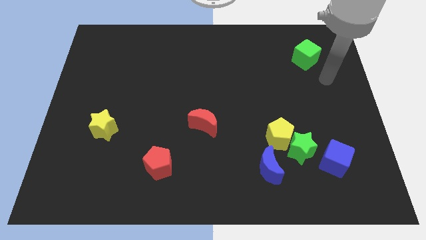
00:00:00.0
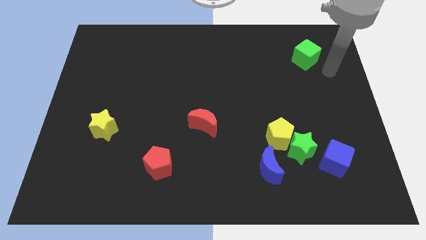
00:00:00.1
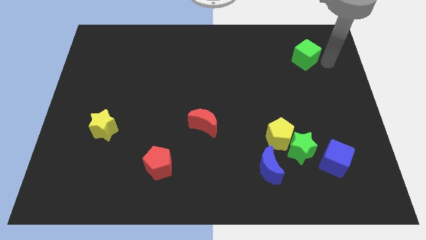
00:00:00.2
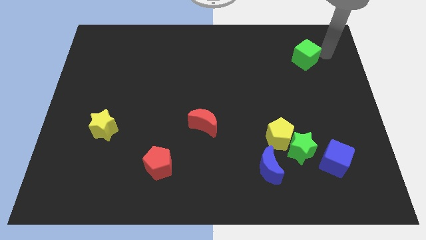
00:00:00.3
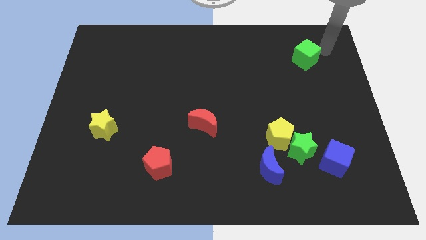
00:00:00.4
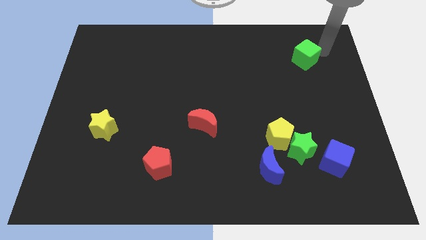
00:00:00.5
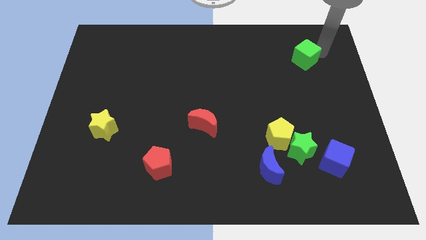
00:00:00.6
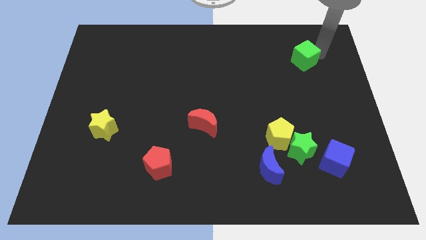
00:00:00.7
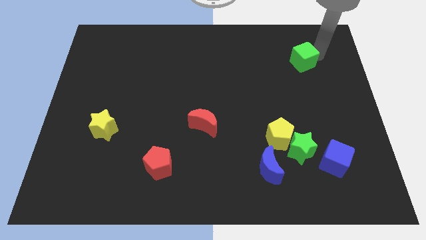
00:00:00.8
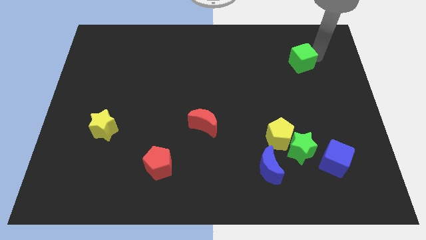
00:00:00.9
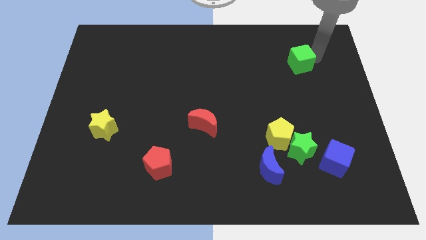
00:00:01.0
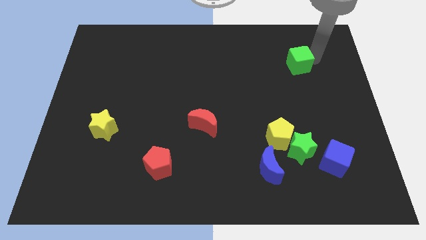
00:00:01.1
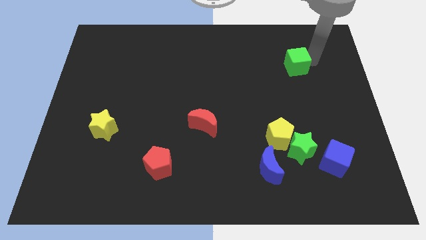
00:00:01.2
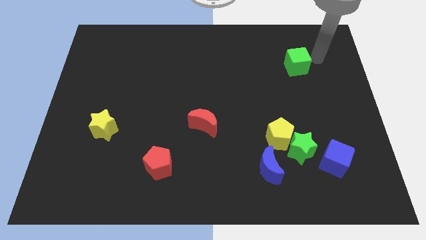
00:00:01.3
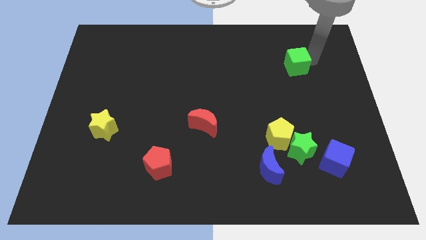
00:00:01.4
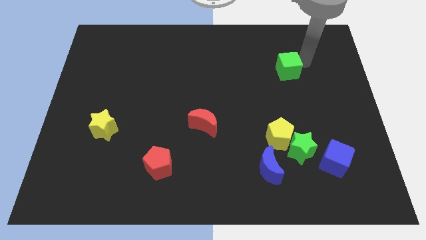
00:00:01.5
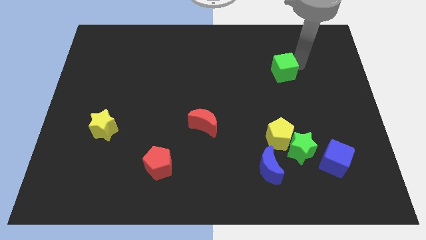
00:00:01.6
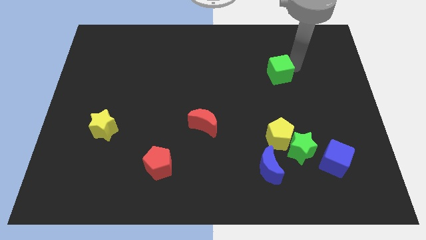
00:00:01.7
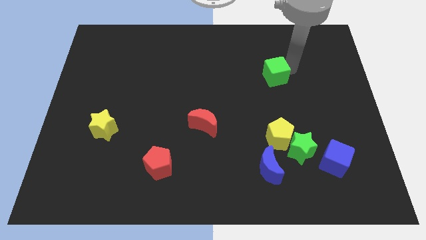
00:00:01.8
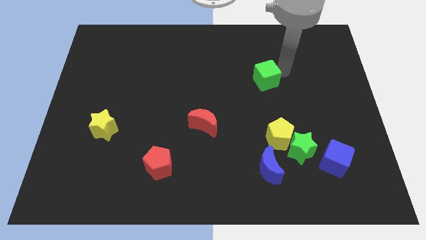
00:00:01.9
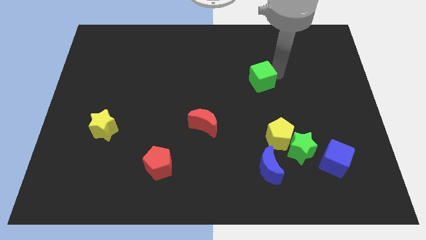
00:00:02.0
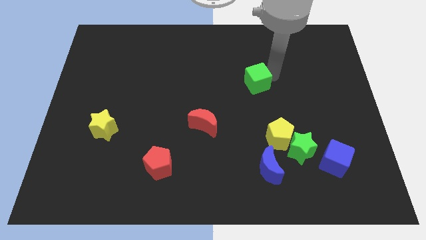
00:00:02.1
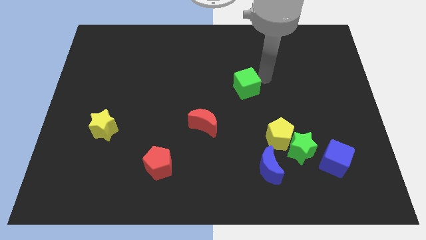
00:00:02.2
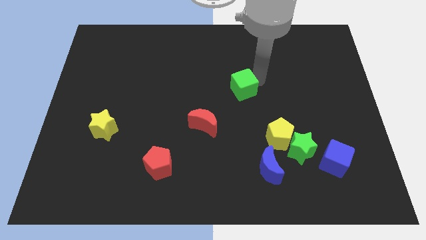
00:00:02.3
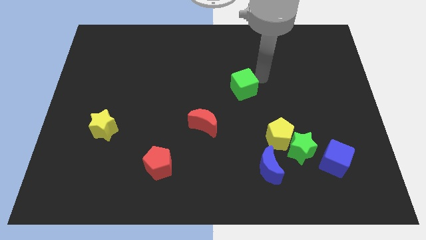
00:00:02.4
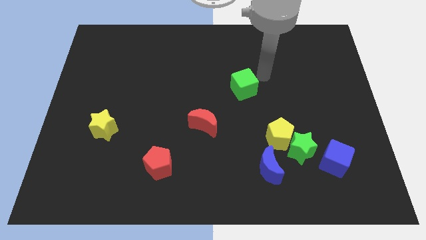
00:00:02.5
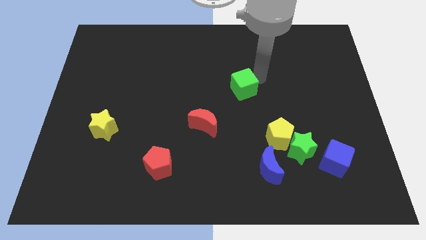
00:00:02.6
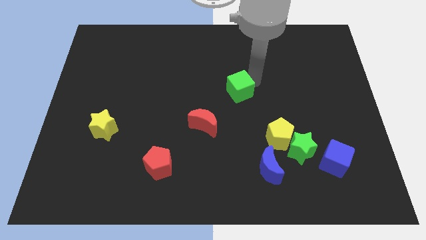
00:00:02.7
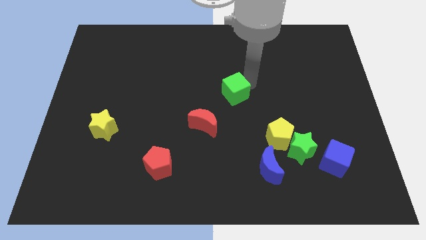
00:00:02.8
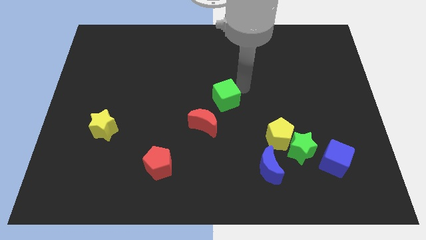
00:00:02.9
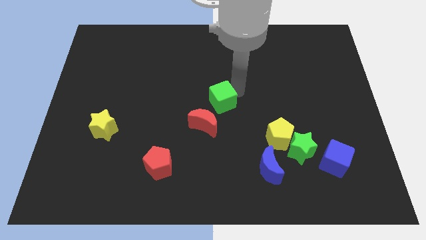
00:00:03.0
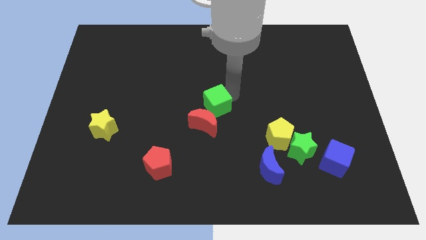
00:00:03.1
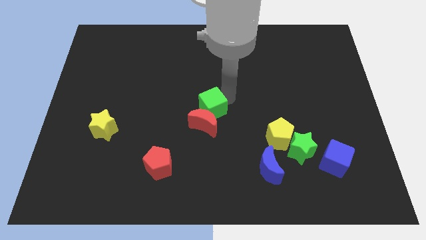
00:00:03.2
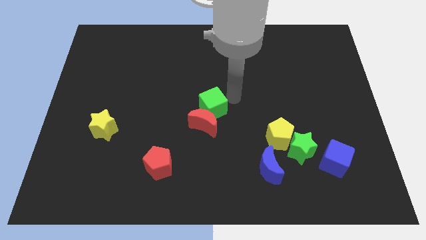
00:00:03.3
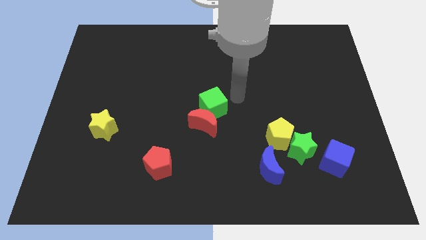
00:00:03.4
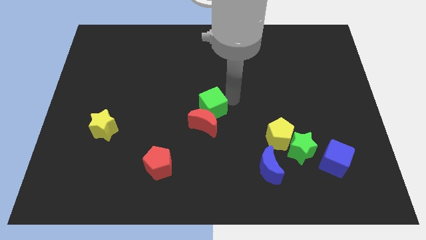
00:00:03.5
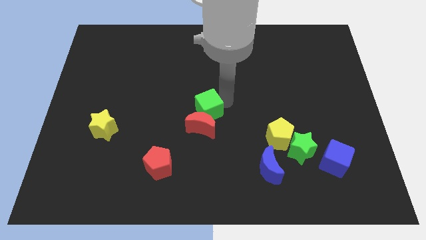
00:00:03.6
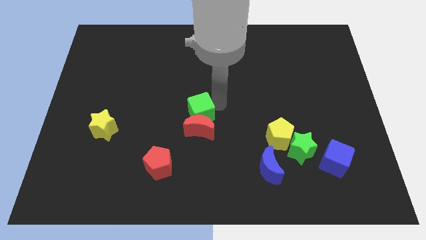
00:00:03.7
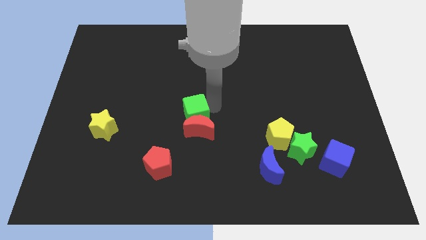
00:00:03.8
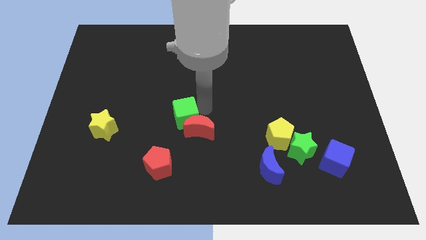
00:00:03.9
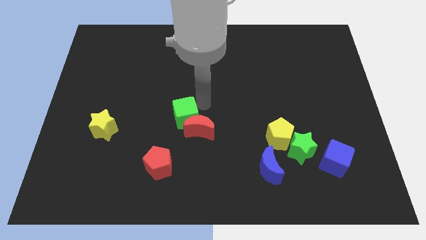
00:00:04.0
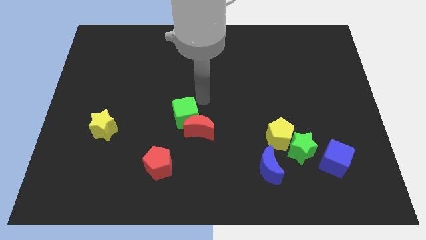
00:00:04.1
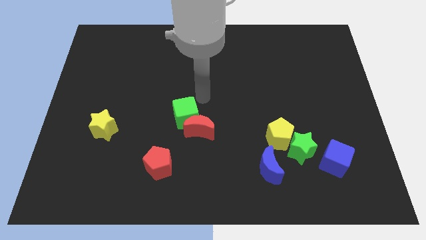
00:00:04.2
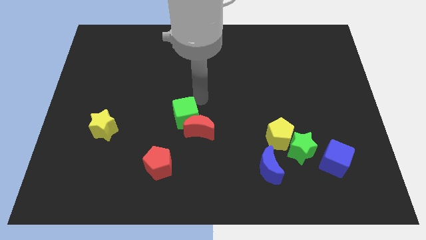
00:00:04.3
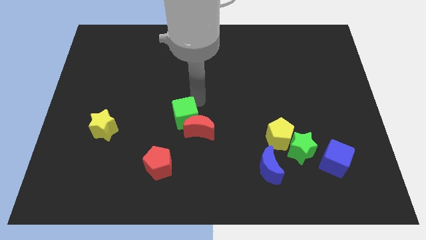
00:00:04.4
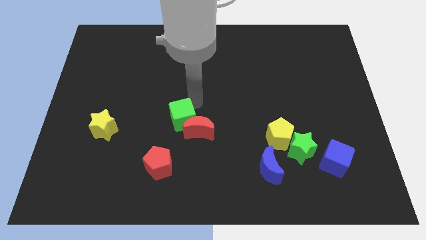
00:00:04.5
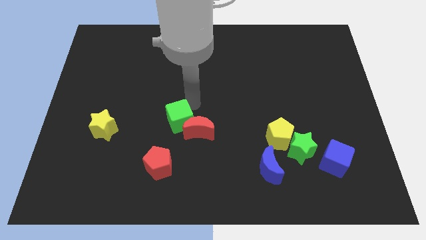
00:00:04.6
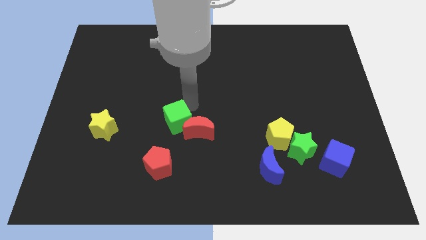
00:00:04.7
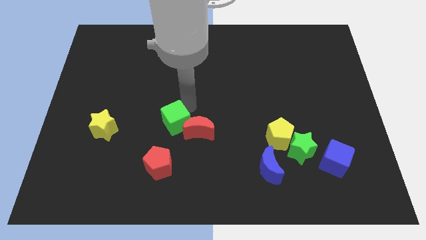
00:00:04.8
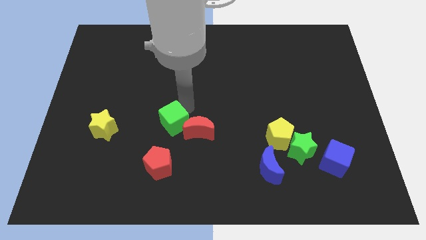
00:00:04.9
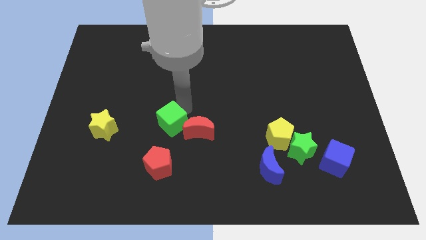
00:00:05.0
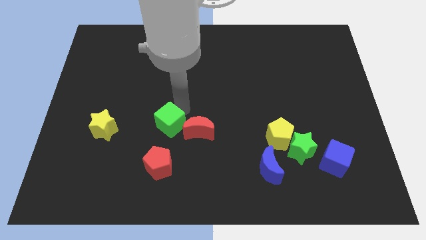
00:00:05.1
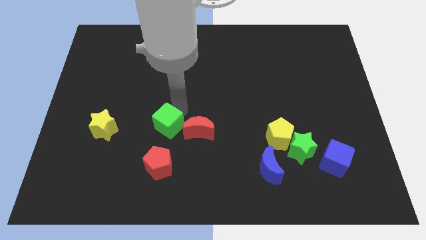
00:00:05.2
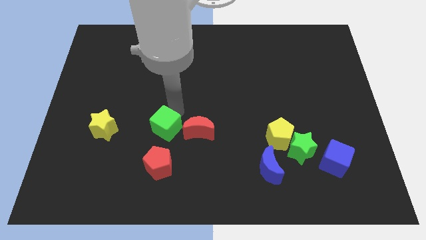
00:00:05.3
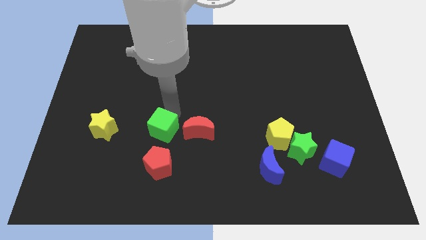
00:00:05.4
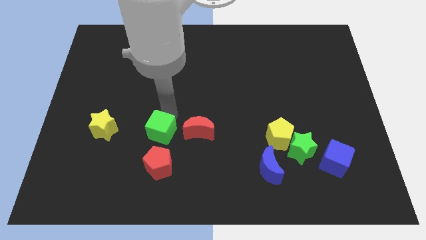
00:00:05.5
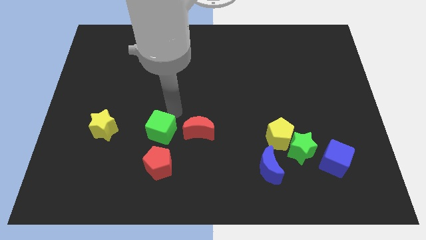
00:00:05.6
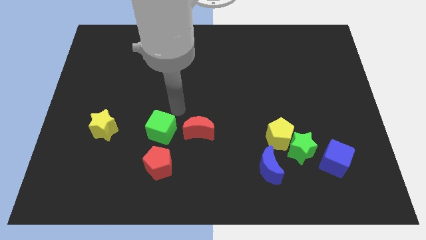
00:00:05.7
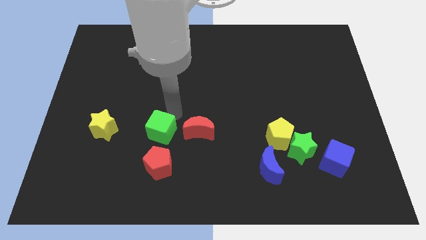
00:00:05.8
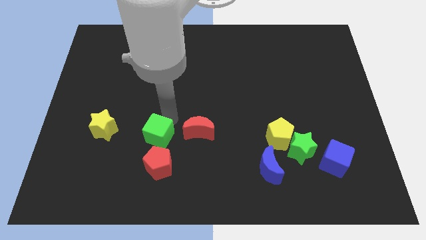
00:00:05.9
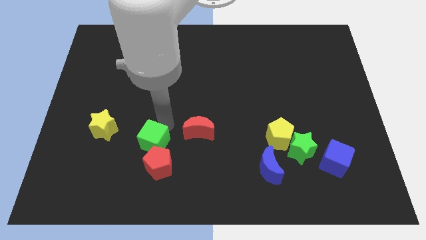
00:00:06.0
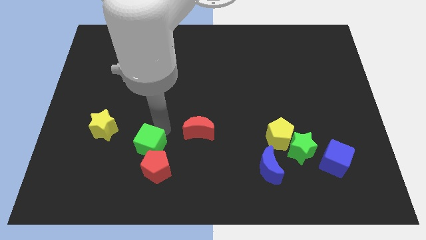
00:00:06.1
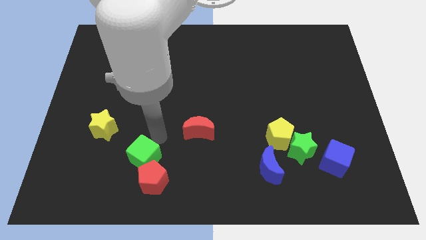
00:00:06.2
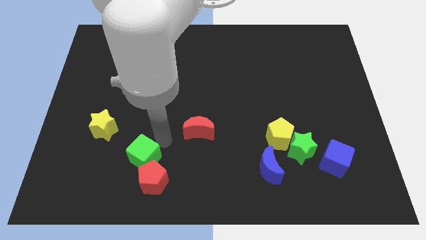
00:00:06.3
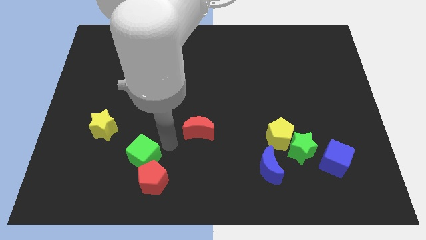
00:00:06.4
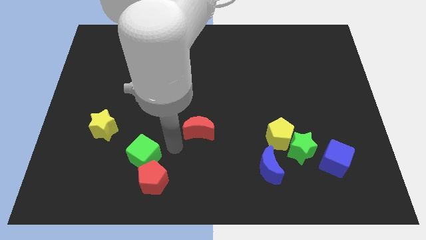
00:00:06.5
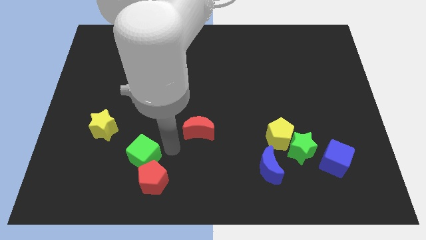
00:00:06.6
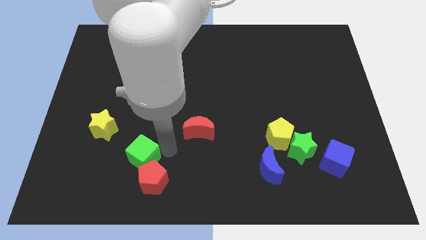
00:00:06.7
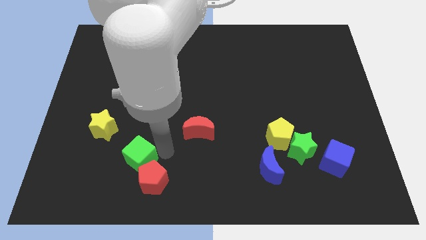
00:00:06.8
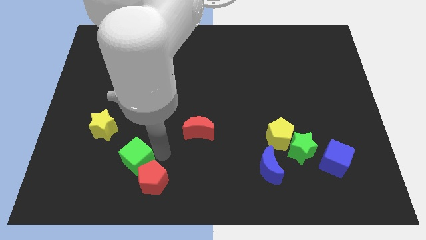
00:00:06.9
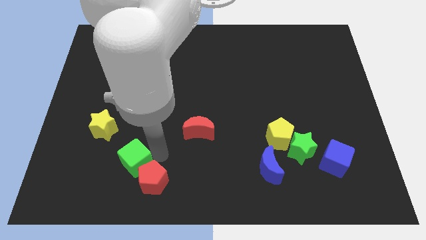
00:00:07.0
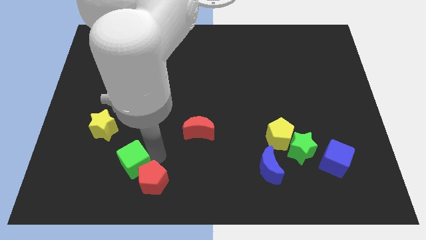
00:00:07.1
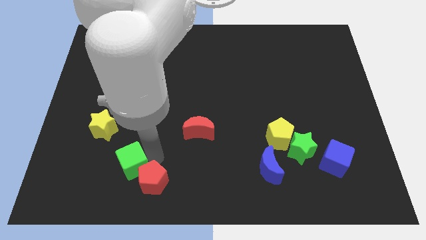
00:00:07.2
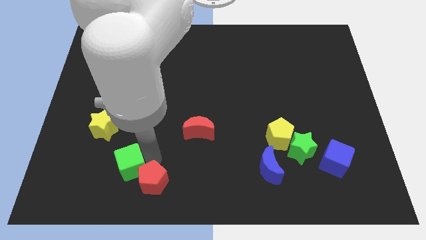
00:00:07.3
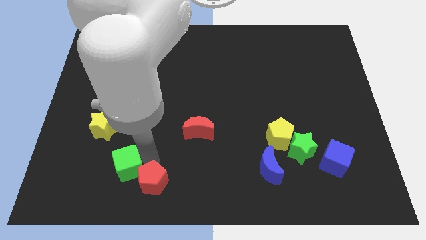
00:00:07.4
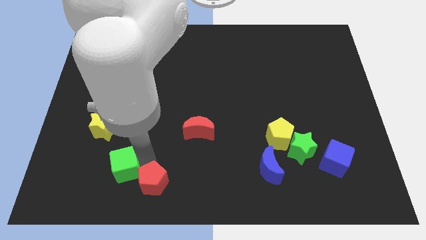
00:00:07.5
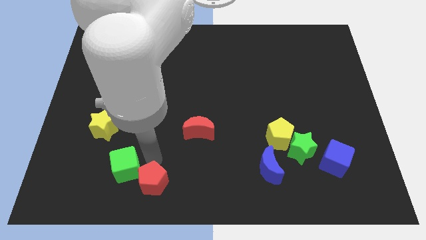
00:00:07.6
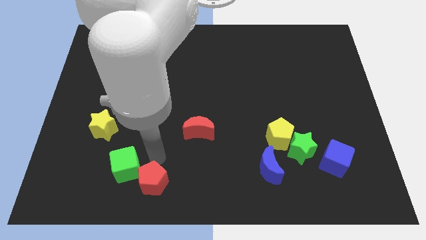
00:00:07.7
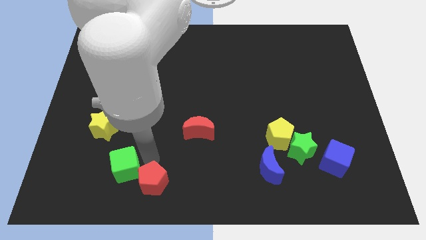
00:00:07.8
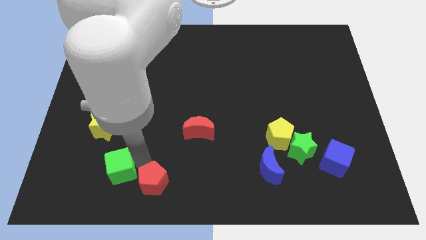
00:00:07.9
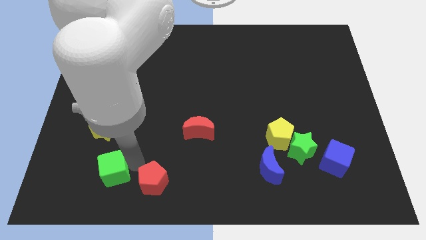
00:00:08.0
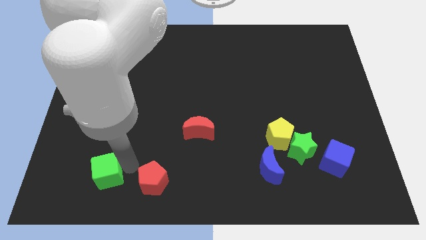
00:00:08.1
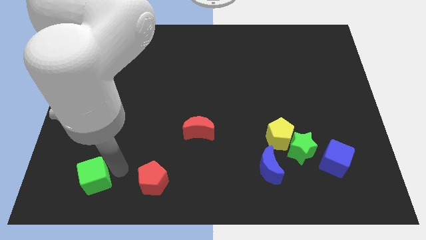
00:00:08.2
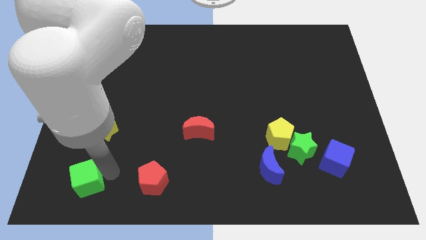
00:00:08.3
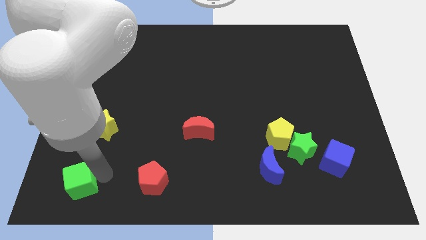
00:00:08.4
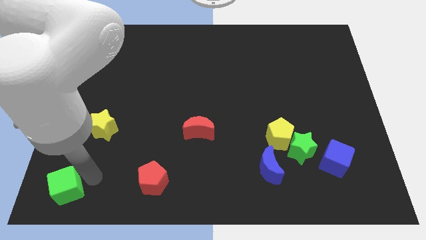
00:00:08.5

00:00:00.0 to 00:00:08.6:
move the green cube to the bottom left corner
